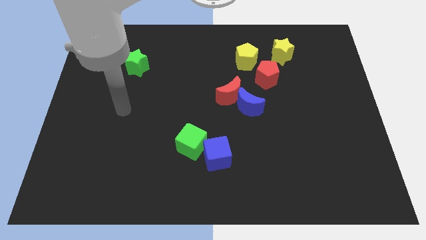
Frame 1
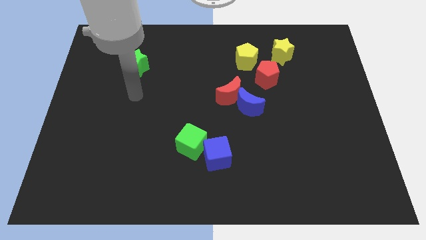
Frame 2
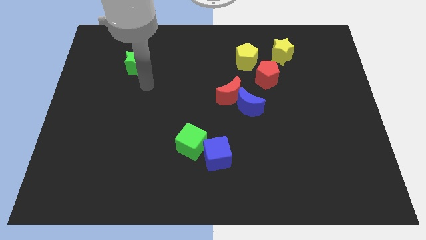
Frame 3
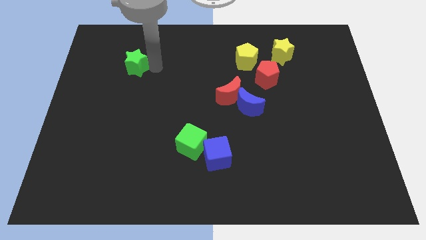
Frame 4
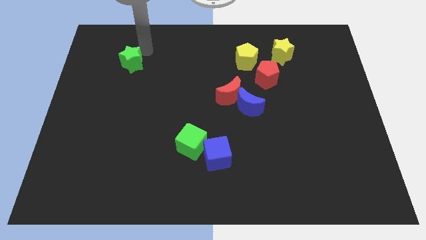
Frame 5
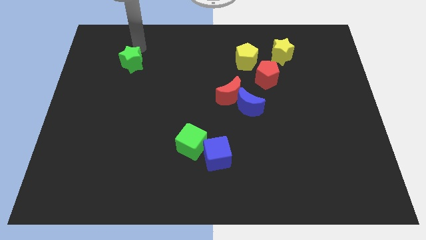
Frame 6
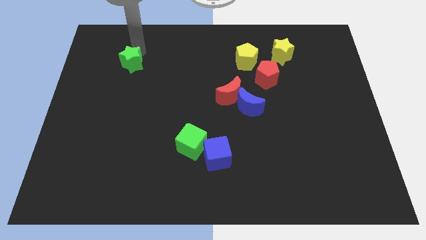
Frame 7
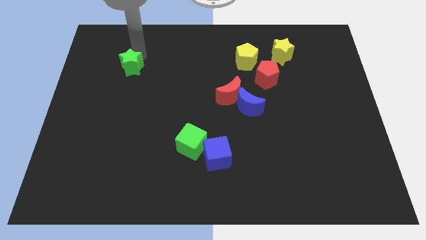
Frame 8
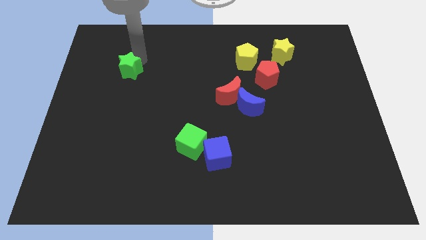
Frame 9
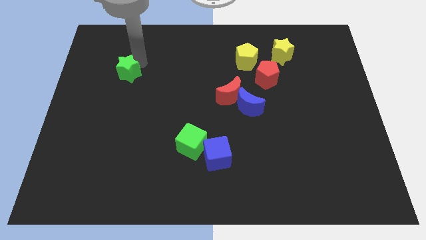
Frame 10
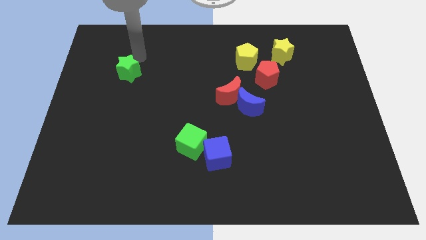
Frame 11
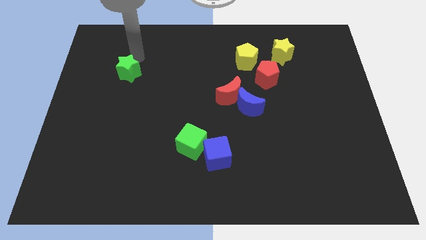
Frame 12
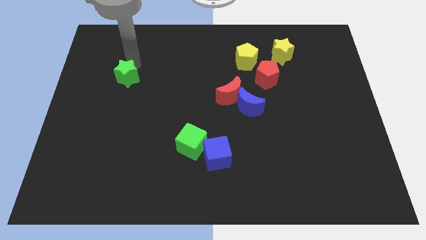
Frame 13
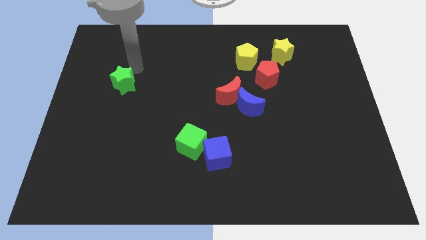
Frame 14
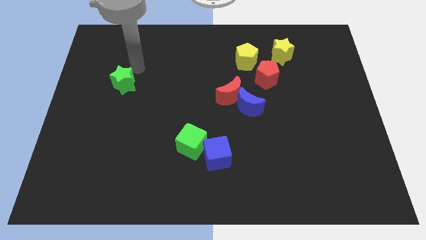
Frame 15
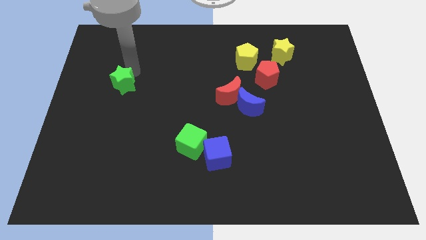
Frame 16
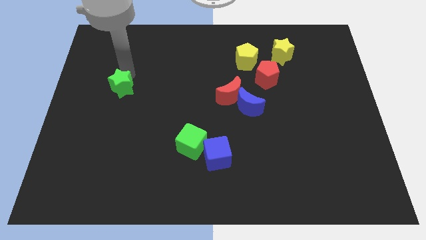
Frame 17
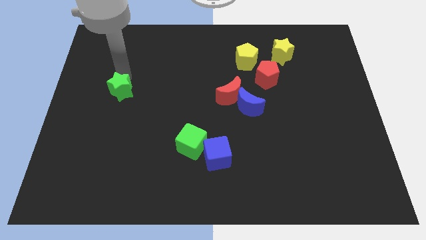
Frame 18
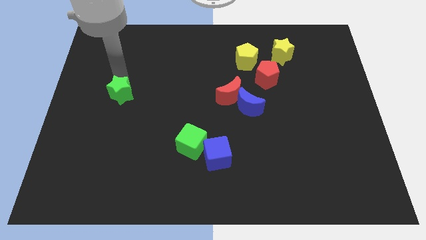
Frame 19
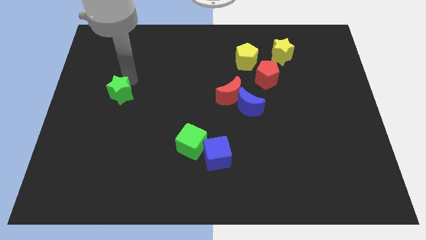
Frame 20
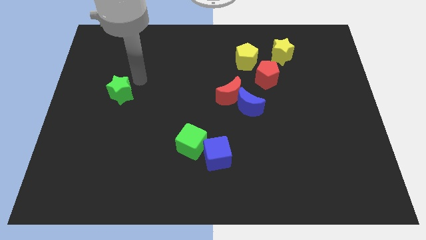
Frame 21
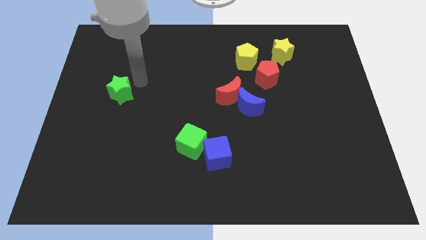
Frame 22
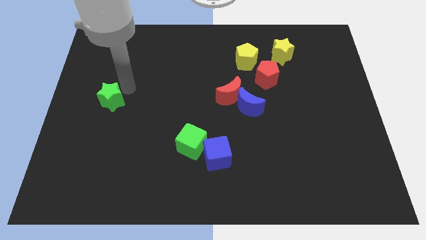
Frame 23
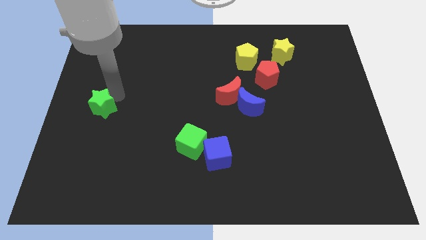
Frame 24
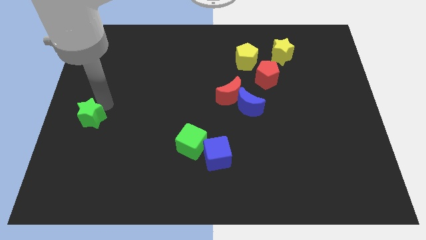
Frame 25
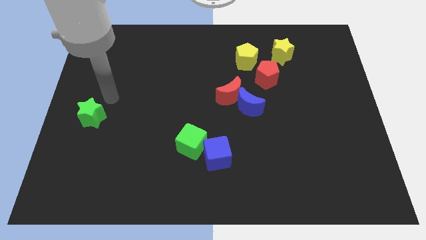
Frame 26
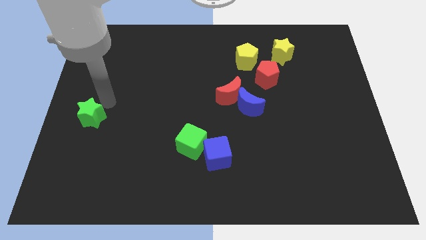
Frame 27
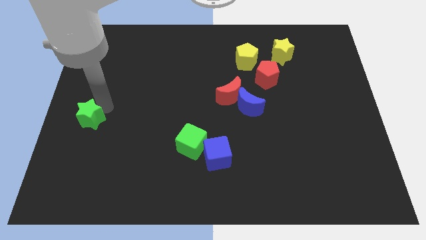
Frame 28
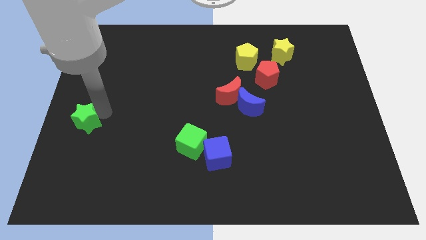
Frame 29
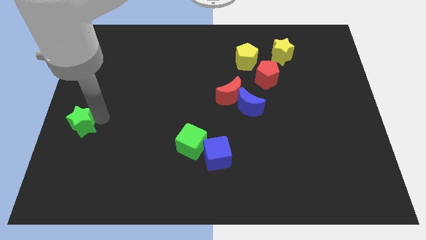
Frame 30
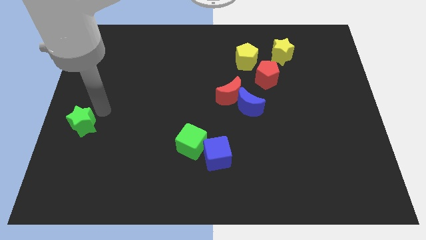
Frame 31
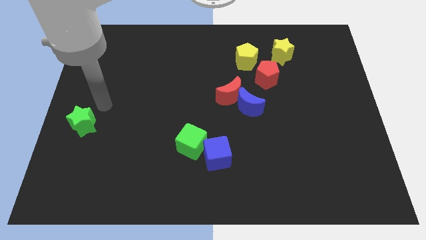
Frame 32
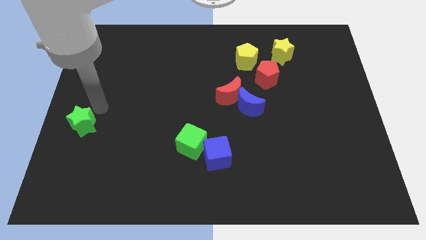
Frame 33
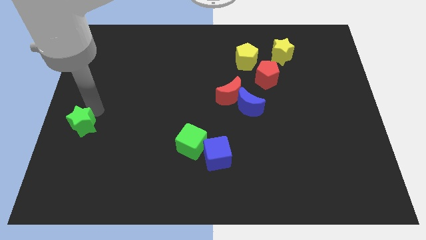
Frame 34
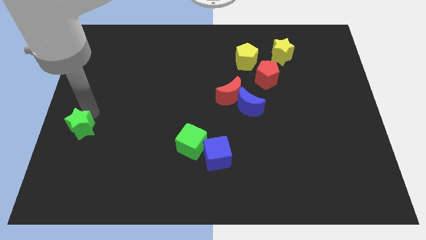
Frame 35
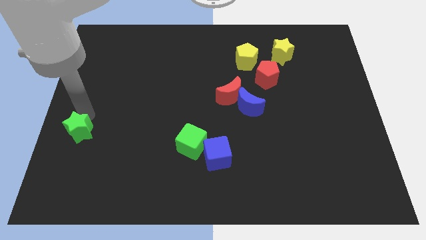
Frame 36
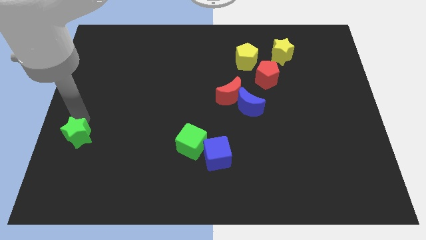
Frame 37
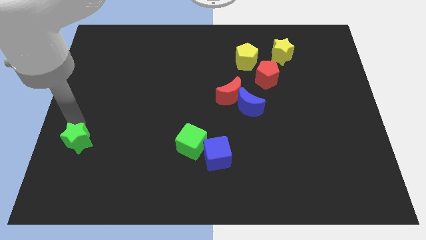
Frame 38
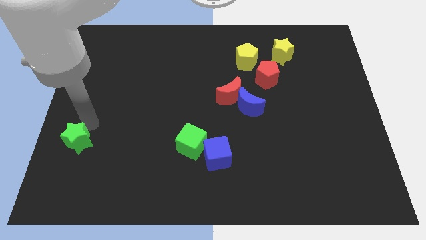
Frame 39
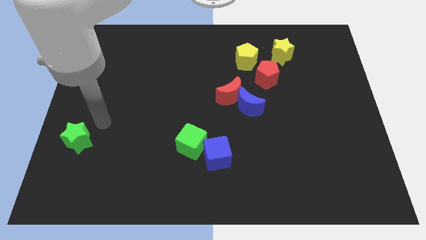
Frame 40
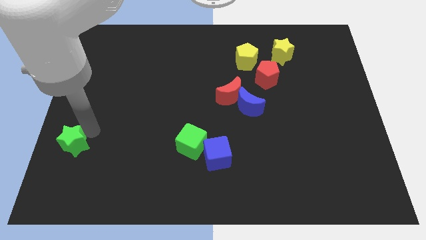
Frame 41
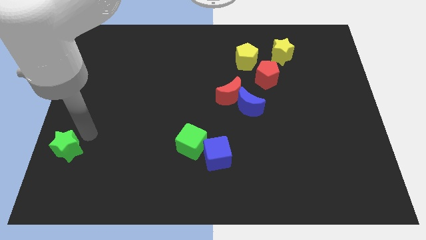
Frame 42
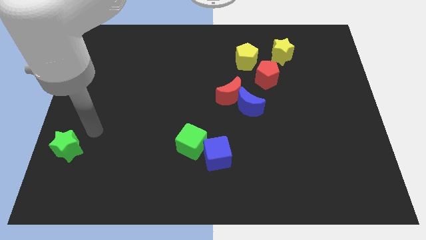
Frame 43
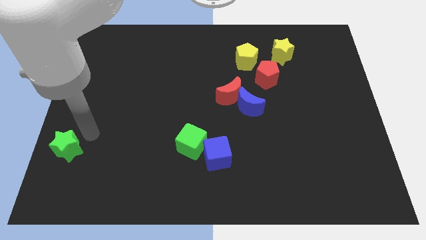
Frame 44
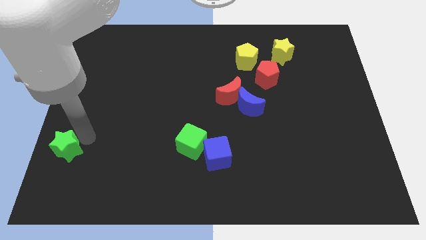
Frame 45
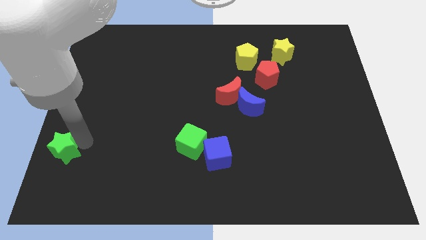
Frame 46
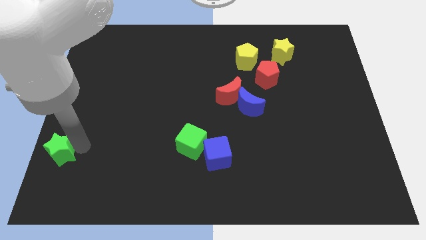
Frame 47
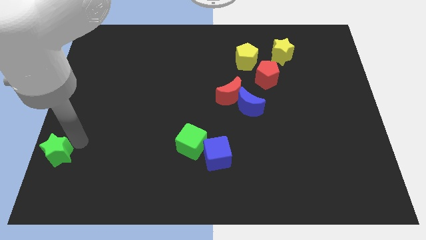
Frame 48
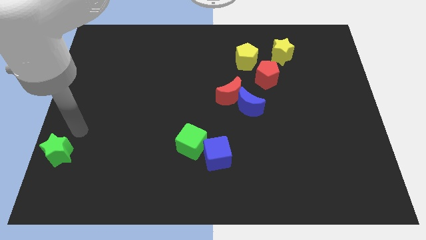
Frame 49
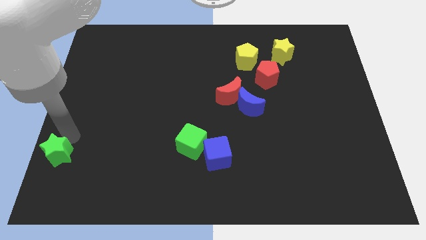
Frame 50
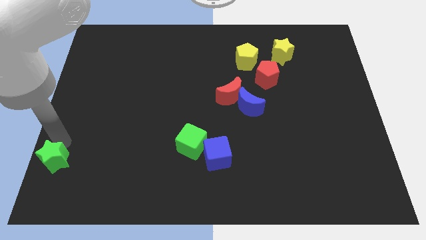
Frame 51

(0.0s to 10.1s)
move the green star to the bottom left of the board

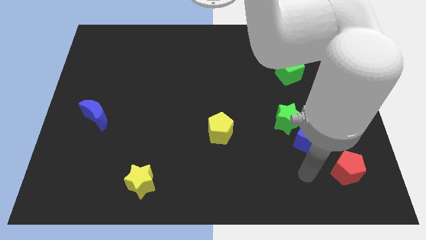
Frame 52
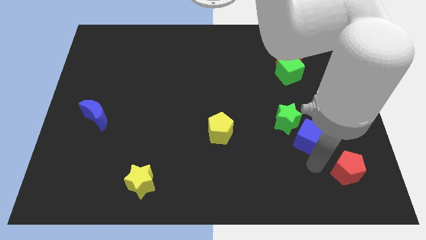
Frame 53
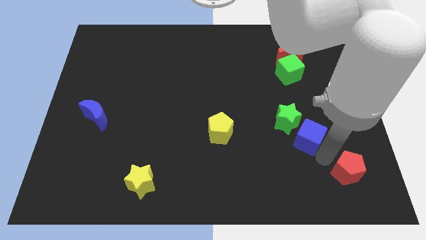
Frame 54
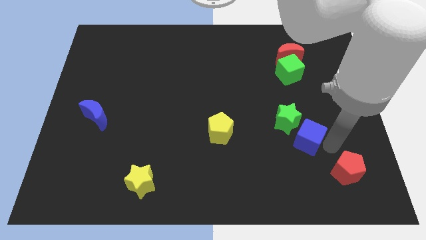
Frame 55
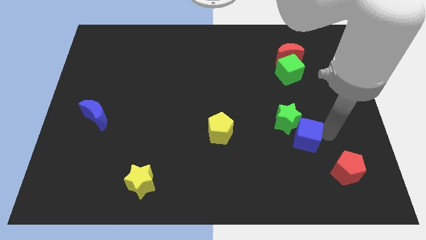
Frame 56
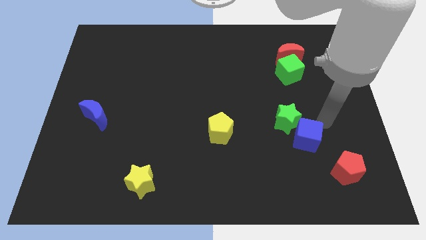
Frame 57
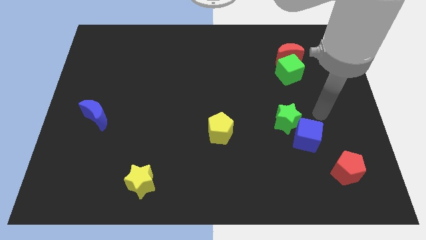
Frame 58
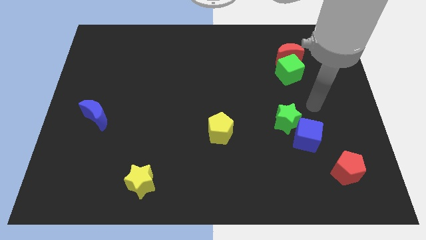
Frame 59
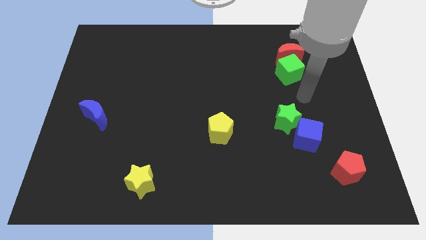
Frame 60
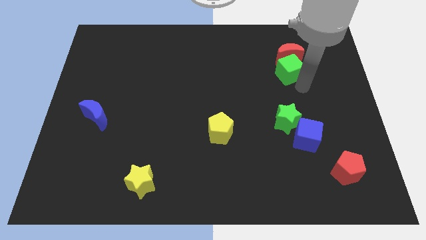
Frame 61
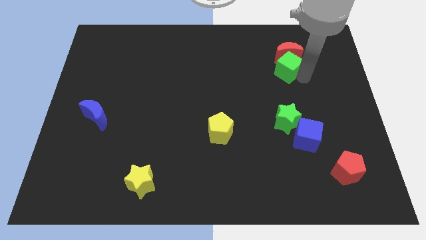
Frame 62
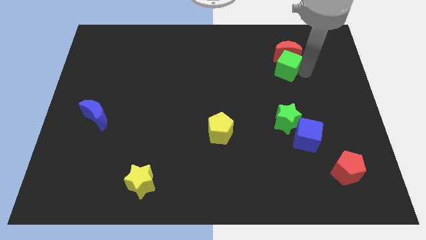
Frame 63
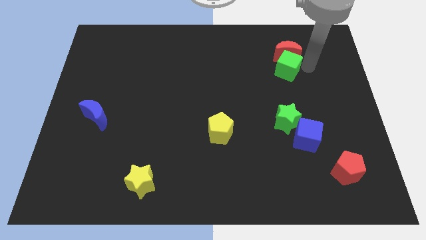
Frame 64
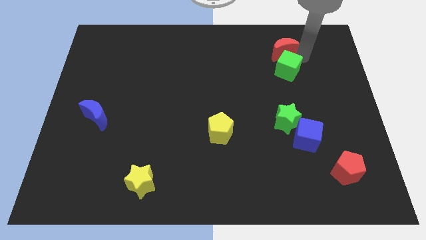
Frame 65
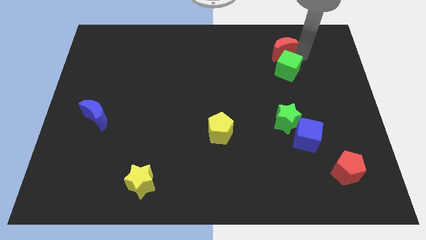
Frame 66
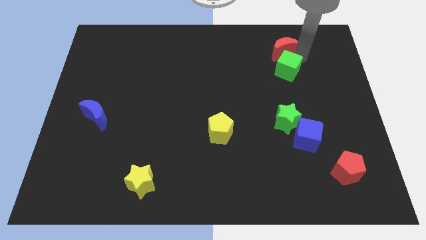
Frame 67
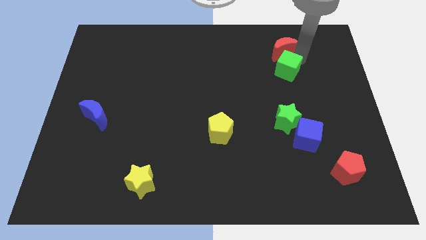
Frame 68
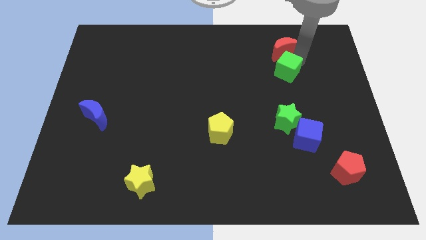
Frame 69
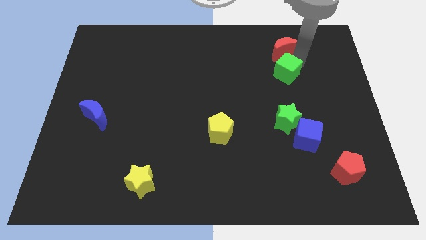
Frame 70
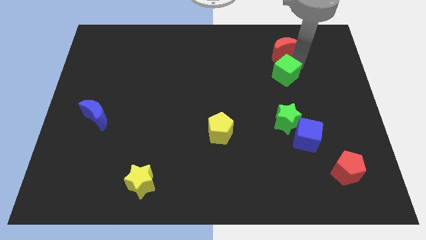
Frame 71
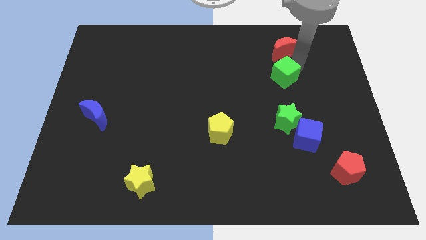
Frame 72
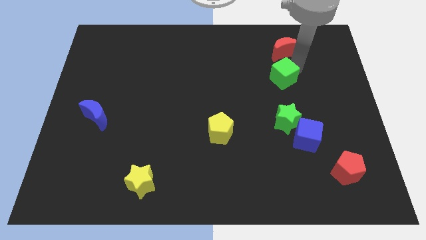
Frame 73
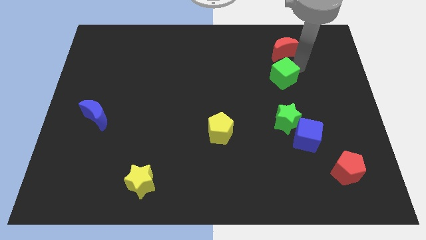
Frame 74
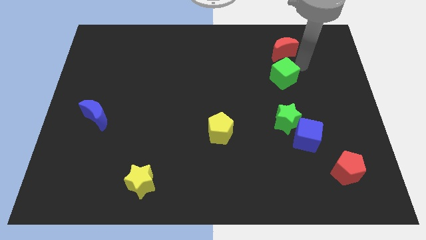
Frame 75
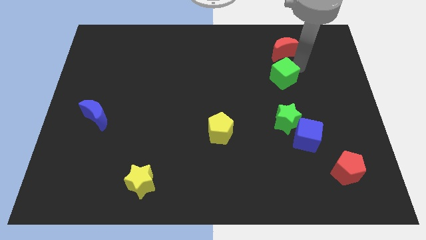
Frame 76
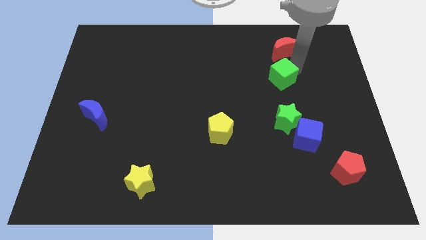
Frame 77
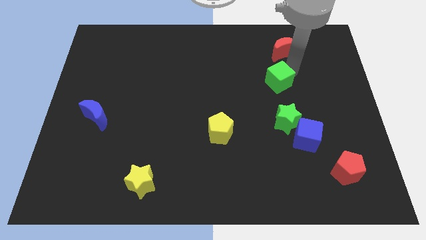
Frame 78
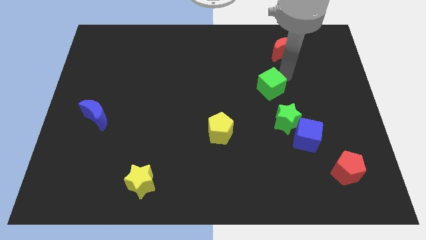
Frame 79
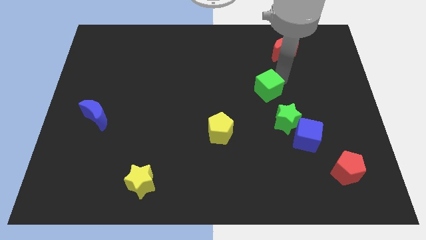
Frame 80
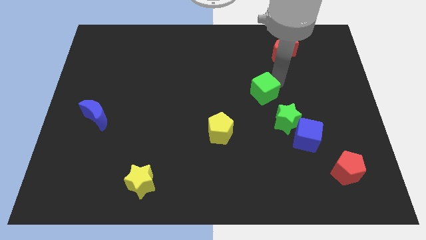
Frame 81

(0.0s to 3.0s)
move the green cube to the middle
